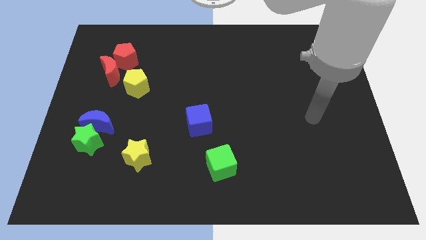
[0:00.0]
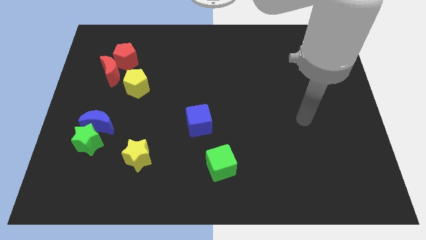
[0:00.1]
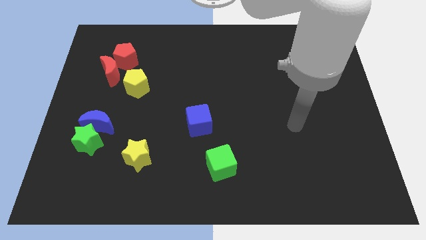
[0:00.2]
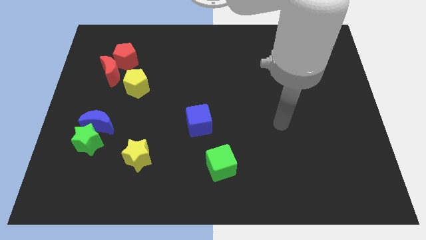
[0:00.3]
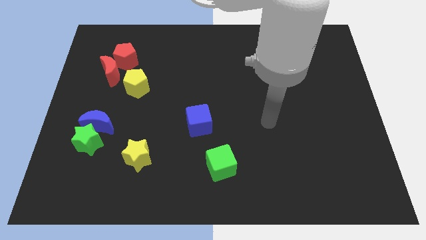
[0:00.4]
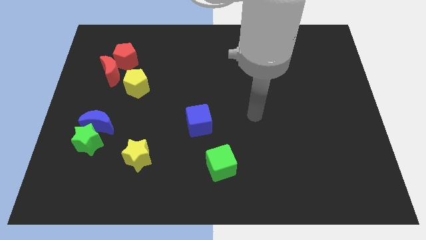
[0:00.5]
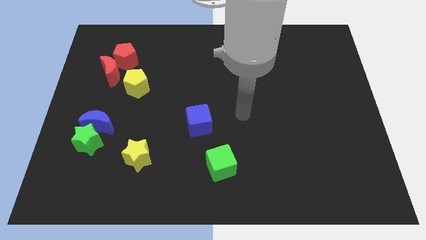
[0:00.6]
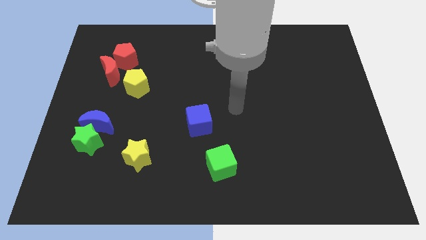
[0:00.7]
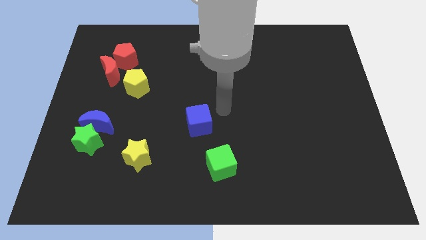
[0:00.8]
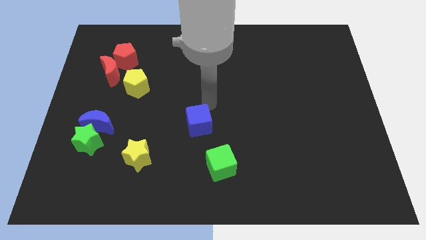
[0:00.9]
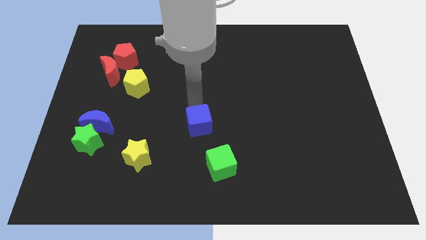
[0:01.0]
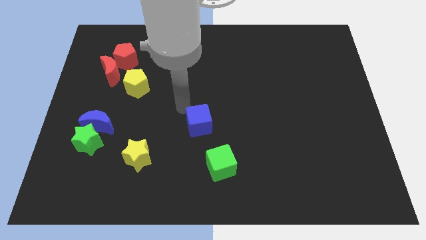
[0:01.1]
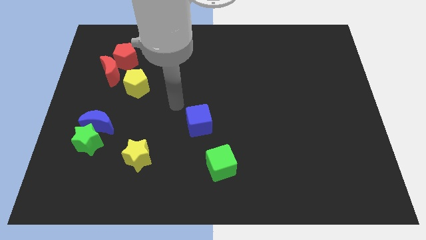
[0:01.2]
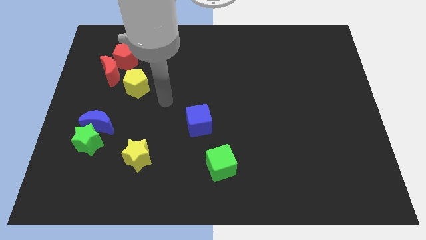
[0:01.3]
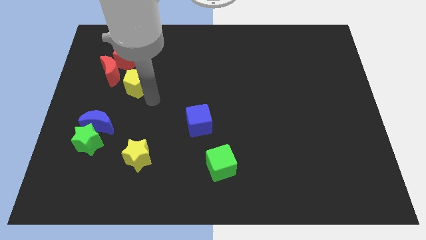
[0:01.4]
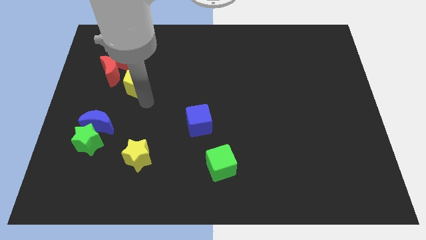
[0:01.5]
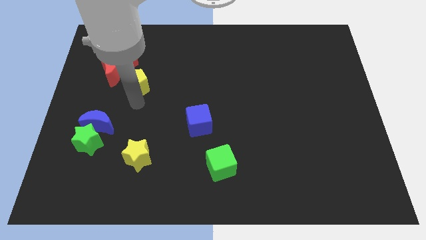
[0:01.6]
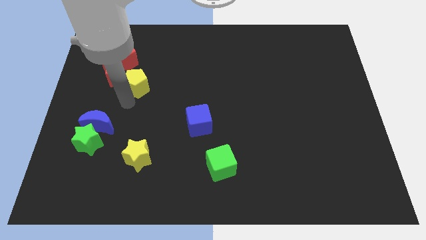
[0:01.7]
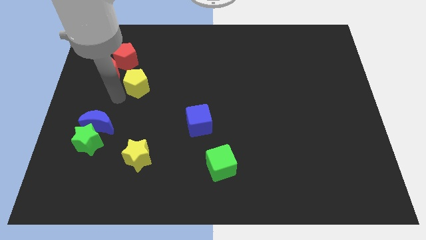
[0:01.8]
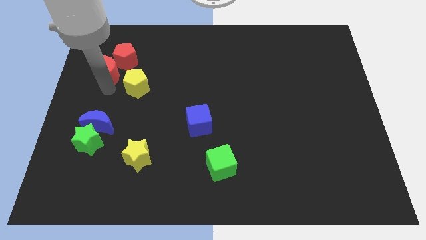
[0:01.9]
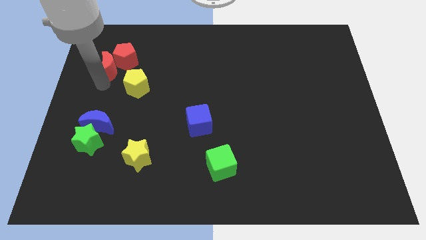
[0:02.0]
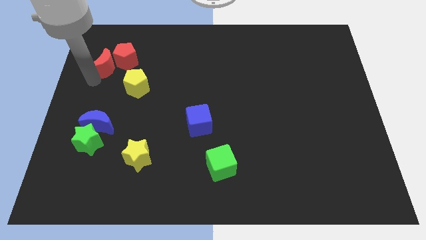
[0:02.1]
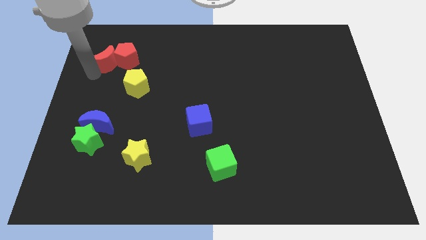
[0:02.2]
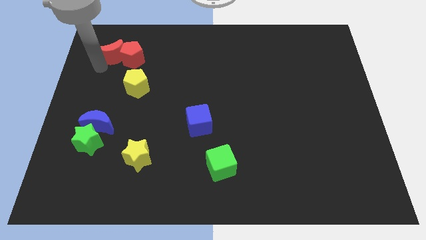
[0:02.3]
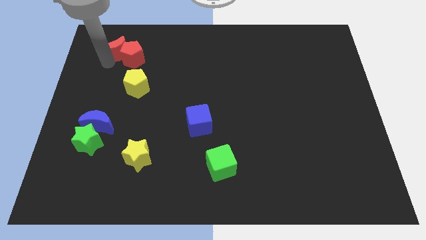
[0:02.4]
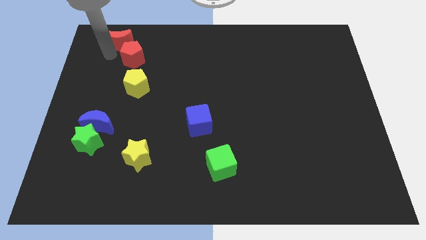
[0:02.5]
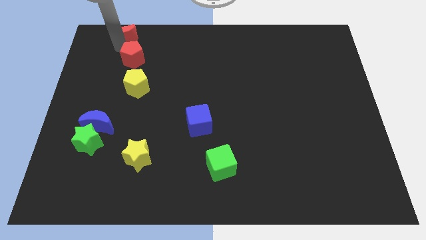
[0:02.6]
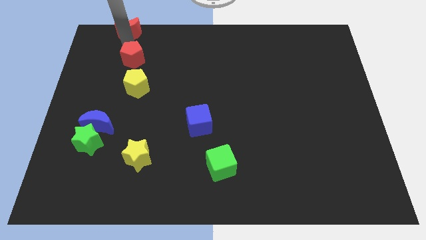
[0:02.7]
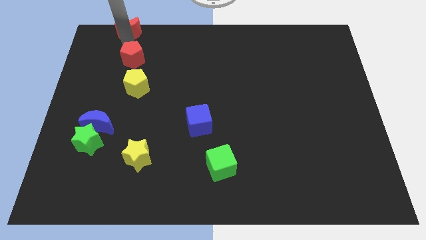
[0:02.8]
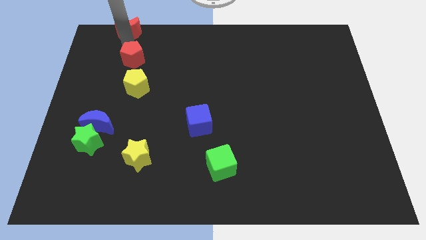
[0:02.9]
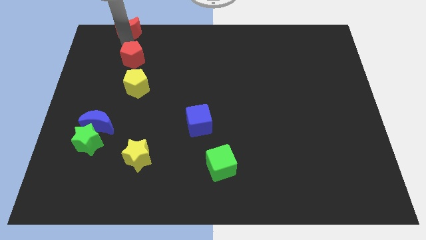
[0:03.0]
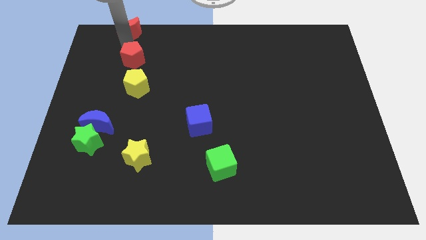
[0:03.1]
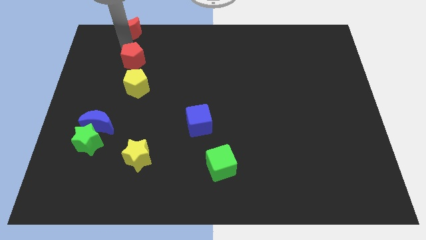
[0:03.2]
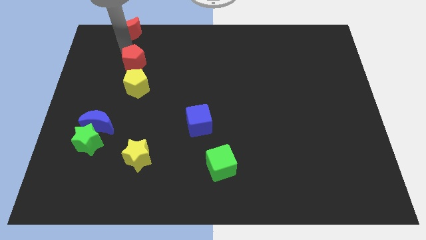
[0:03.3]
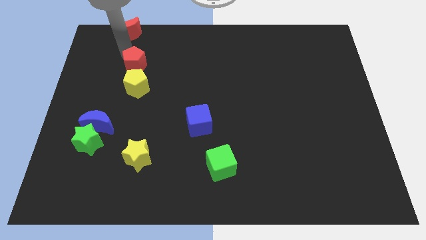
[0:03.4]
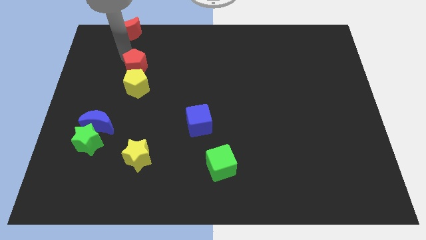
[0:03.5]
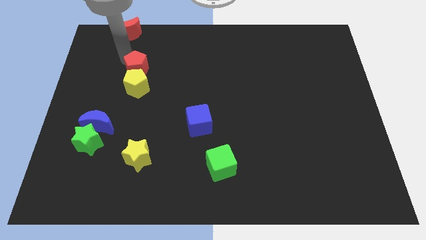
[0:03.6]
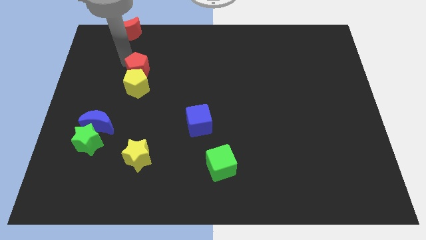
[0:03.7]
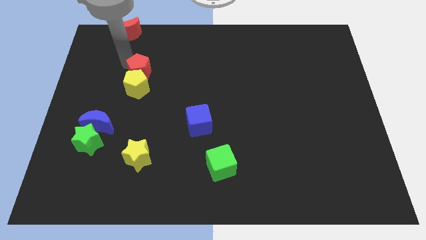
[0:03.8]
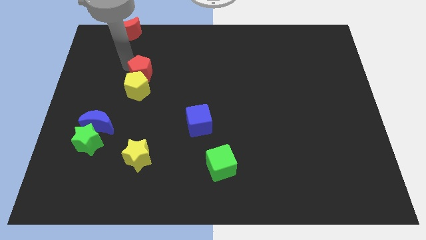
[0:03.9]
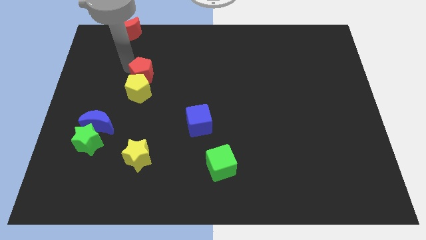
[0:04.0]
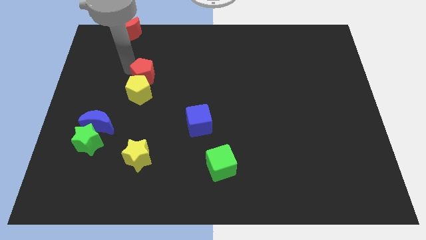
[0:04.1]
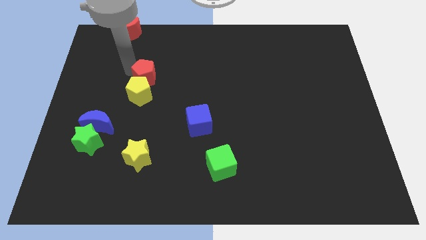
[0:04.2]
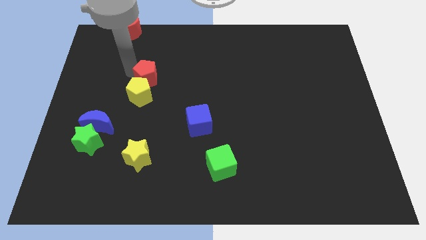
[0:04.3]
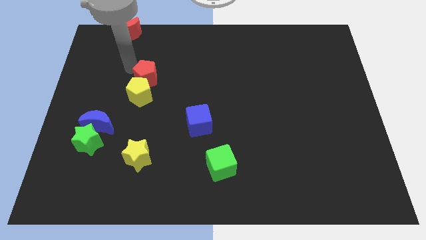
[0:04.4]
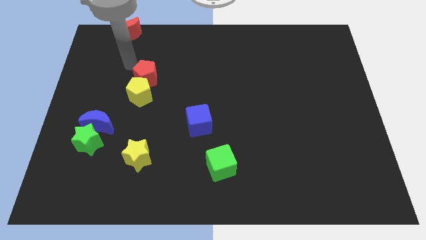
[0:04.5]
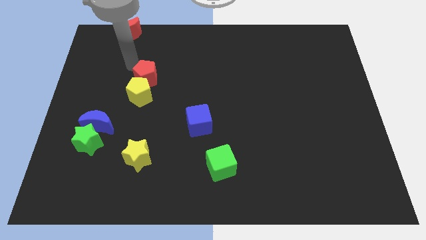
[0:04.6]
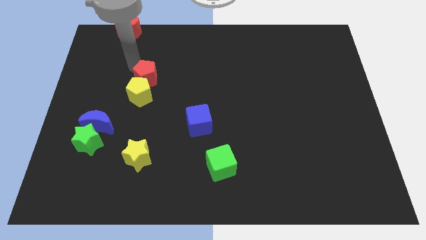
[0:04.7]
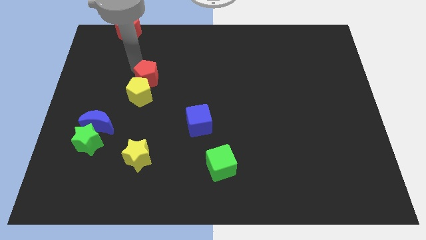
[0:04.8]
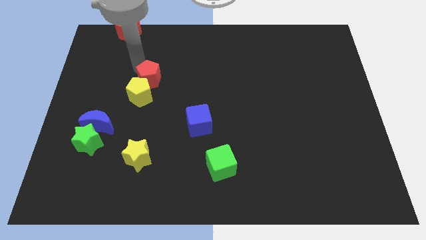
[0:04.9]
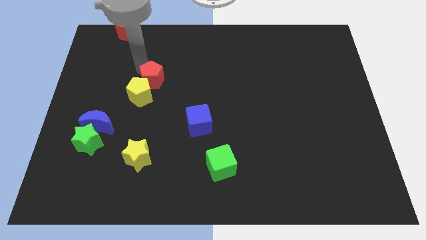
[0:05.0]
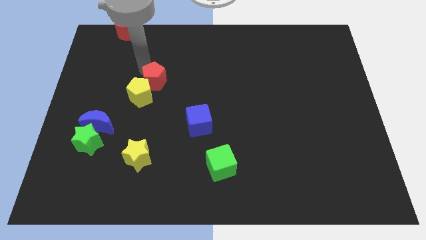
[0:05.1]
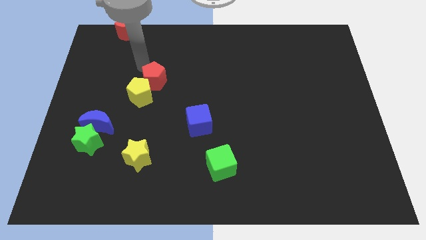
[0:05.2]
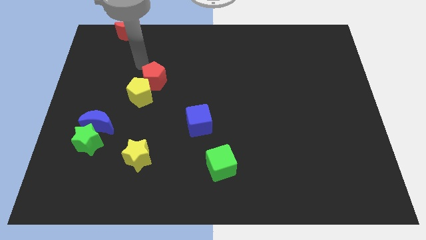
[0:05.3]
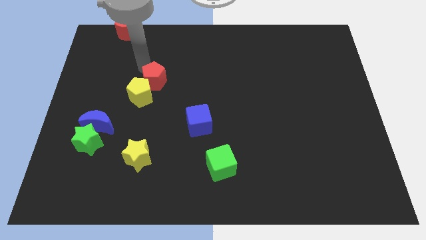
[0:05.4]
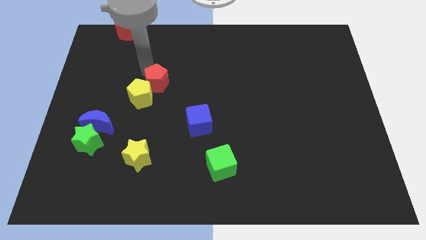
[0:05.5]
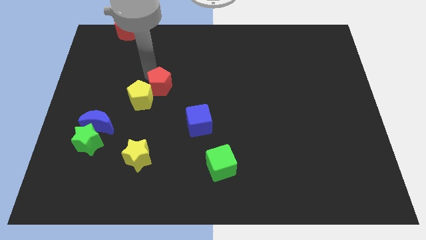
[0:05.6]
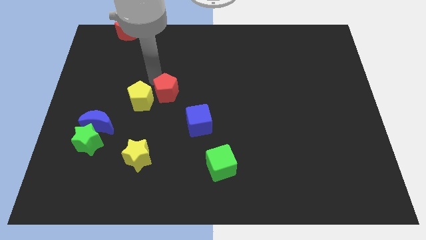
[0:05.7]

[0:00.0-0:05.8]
put the red pentagon diagonally up and to the left of the blue cube

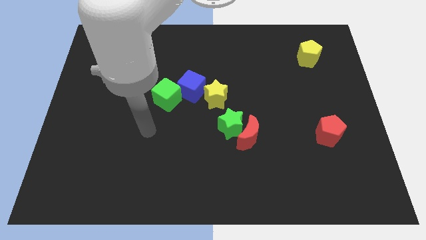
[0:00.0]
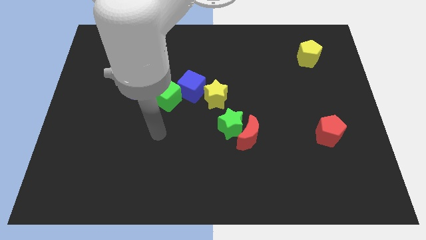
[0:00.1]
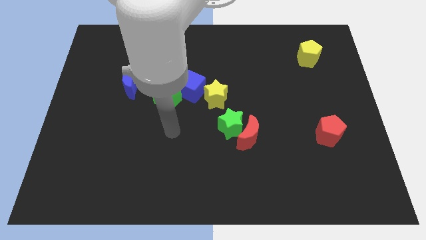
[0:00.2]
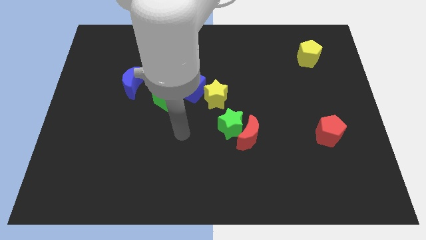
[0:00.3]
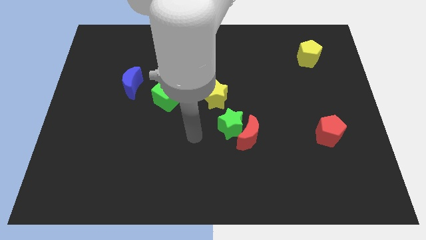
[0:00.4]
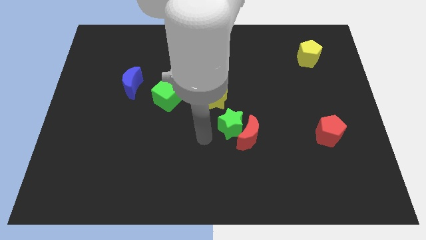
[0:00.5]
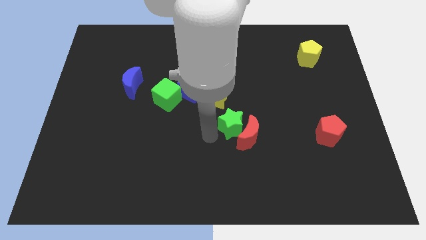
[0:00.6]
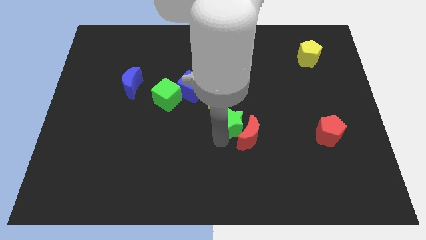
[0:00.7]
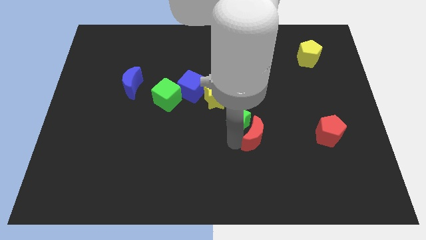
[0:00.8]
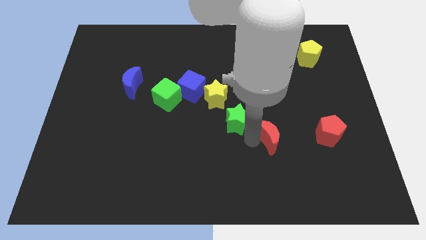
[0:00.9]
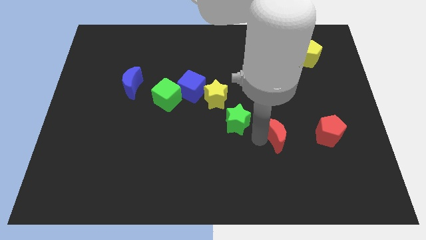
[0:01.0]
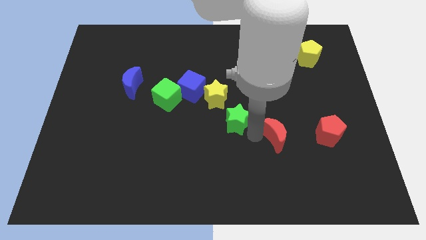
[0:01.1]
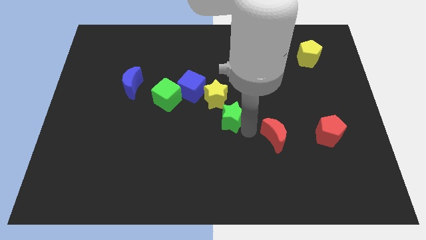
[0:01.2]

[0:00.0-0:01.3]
put the green star diagonally down and to the right of the blue cube
